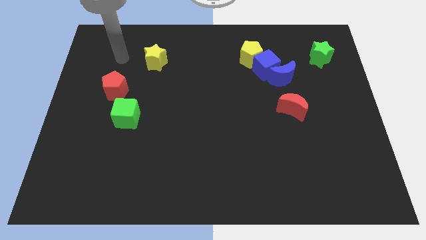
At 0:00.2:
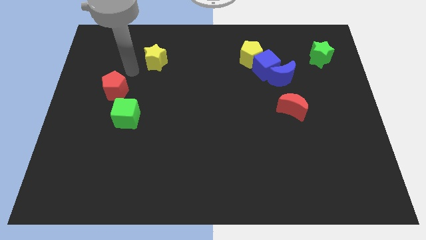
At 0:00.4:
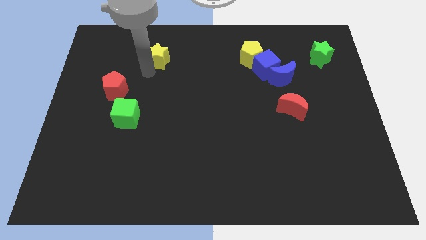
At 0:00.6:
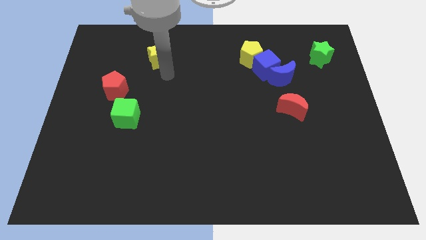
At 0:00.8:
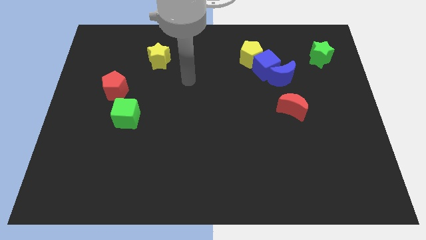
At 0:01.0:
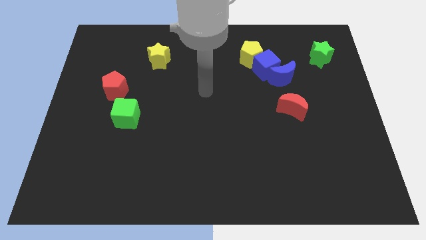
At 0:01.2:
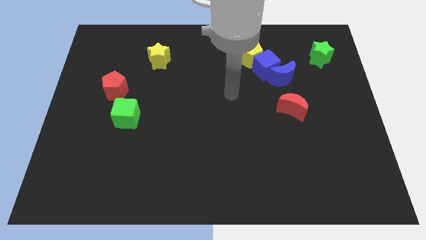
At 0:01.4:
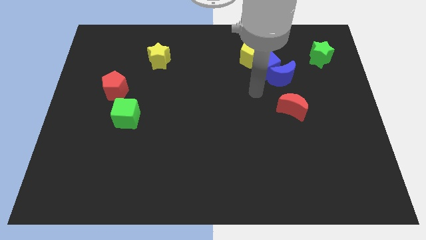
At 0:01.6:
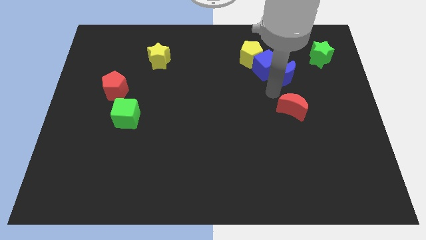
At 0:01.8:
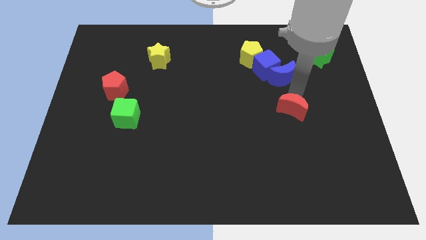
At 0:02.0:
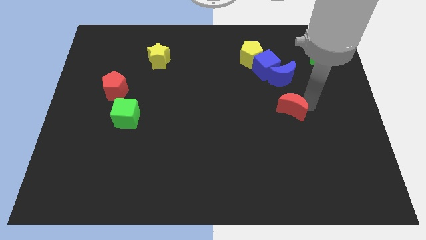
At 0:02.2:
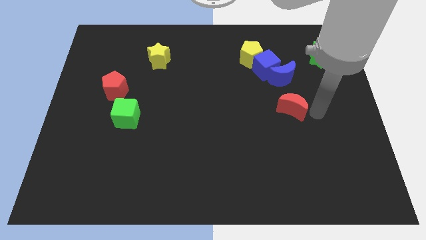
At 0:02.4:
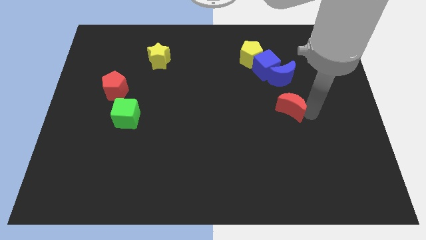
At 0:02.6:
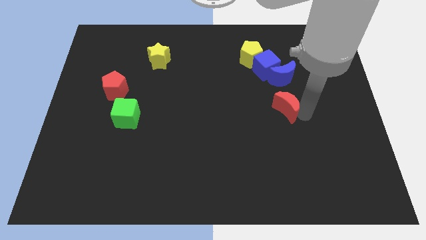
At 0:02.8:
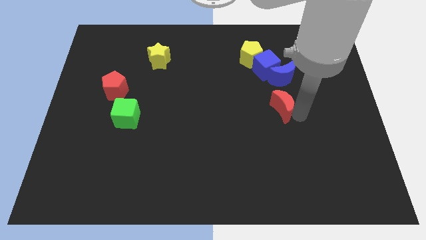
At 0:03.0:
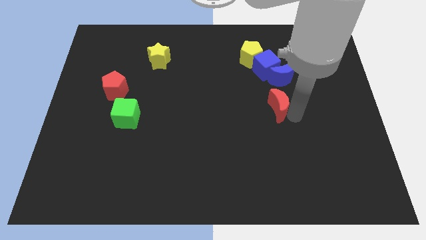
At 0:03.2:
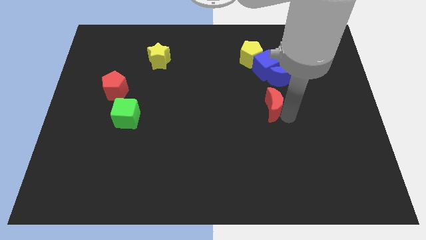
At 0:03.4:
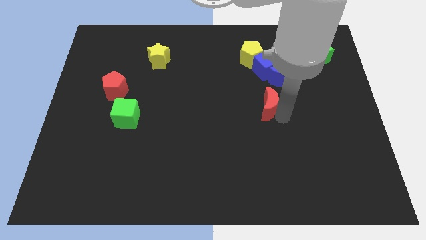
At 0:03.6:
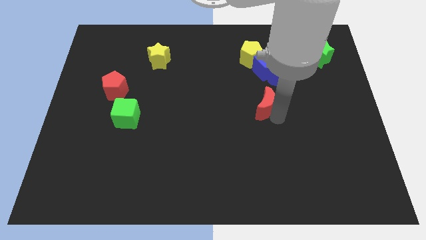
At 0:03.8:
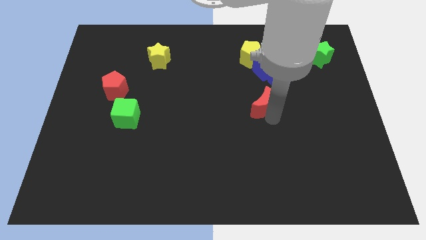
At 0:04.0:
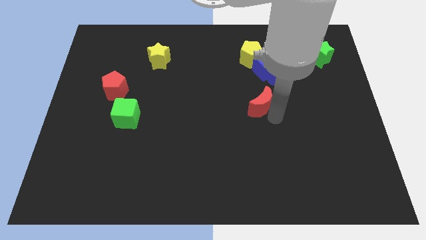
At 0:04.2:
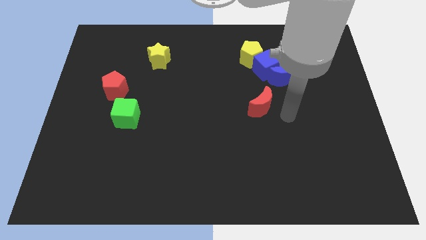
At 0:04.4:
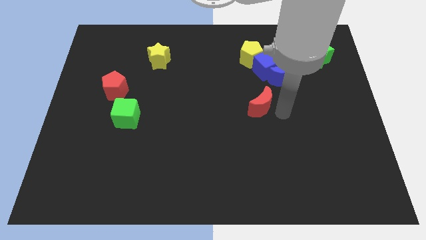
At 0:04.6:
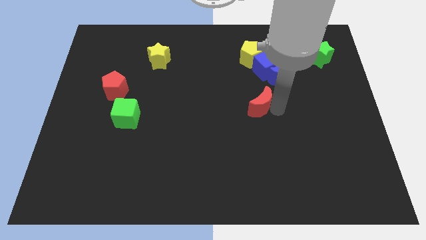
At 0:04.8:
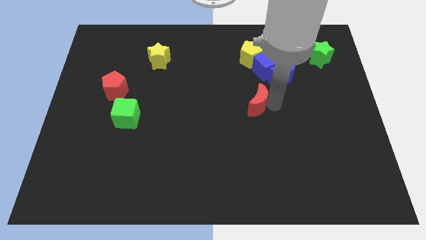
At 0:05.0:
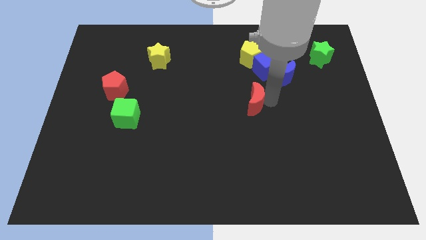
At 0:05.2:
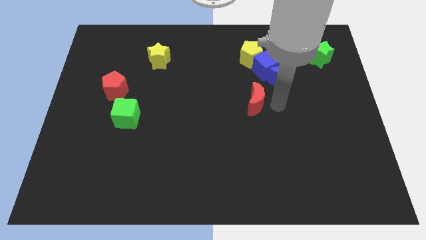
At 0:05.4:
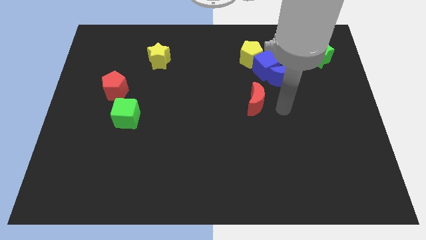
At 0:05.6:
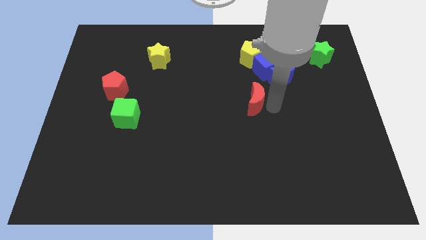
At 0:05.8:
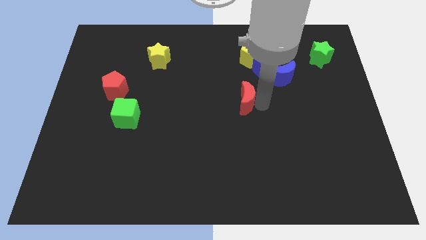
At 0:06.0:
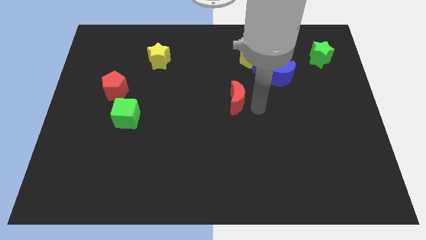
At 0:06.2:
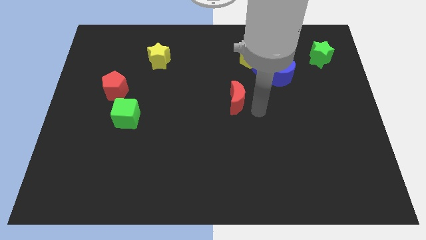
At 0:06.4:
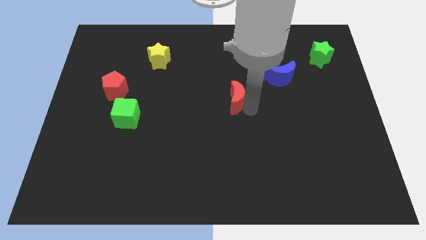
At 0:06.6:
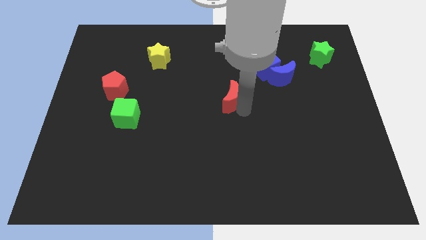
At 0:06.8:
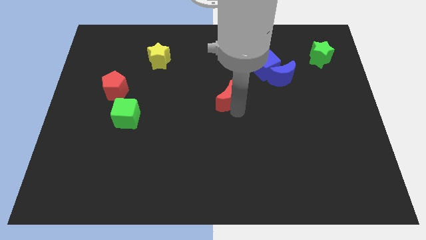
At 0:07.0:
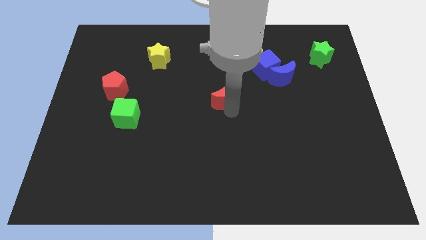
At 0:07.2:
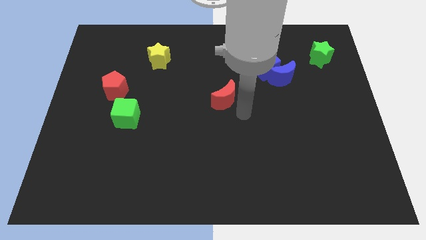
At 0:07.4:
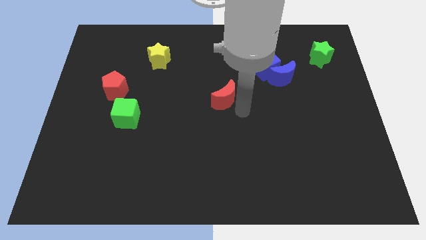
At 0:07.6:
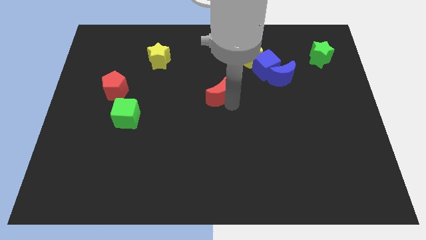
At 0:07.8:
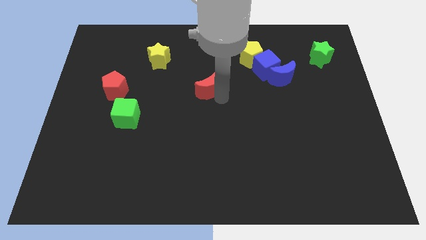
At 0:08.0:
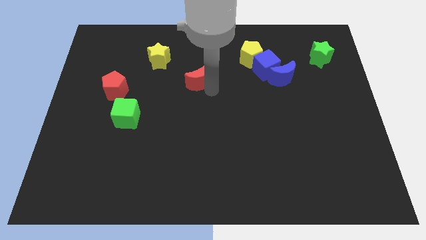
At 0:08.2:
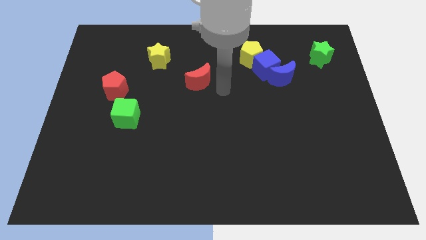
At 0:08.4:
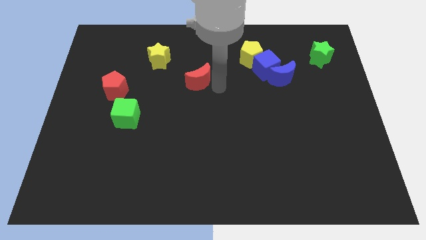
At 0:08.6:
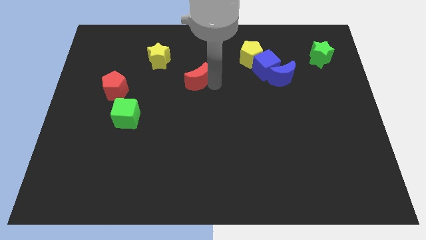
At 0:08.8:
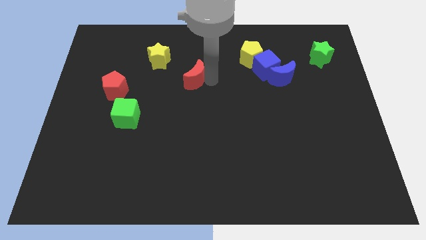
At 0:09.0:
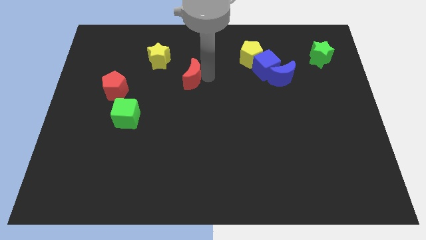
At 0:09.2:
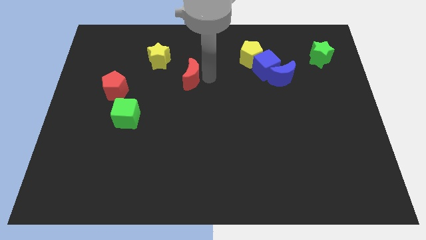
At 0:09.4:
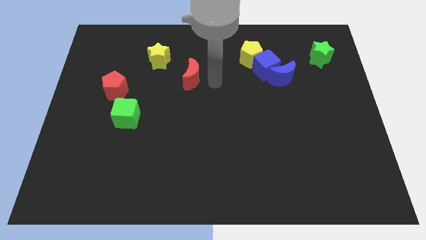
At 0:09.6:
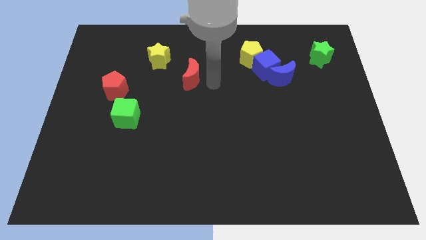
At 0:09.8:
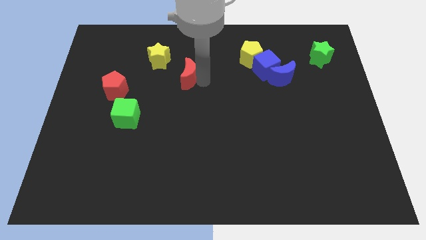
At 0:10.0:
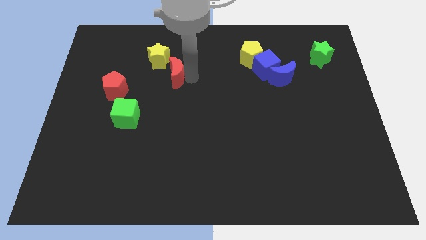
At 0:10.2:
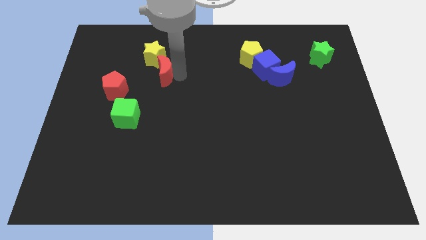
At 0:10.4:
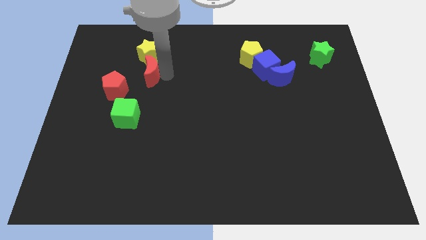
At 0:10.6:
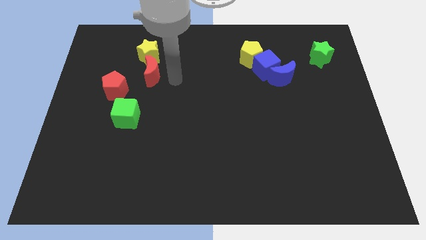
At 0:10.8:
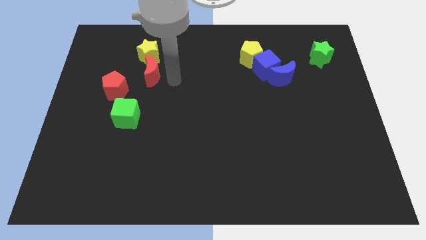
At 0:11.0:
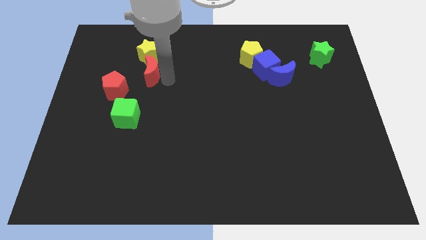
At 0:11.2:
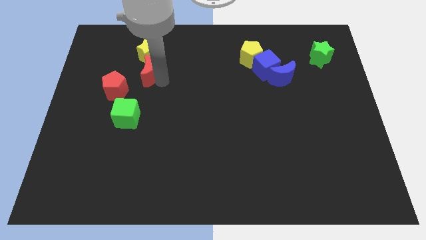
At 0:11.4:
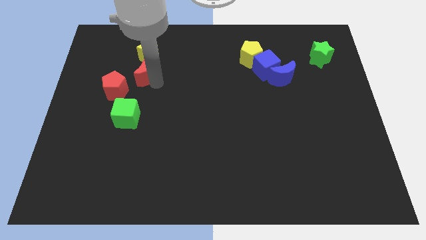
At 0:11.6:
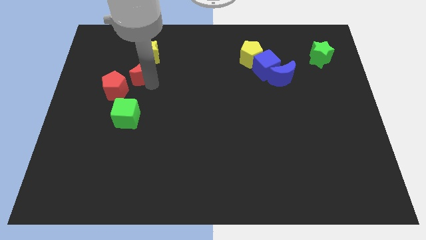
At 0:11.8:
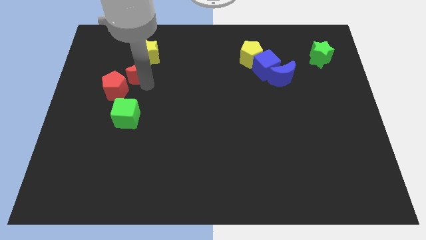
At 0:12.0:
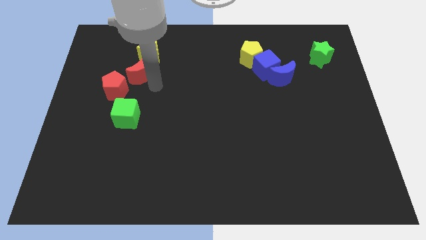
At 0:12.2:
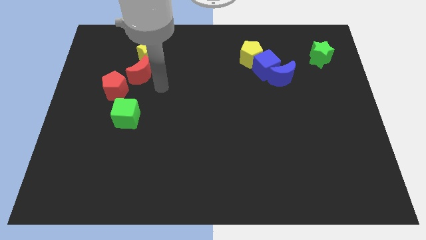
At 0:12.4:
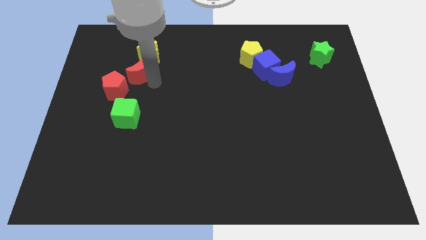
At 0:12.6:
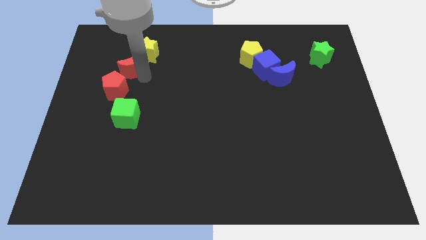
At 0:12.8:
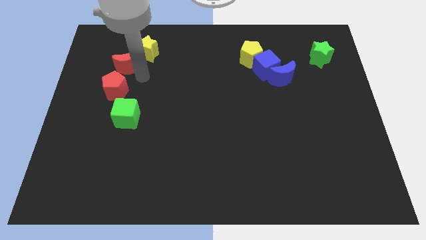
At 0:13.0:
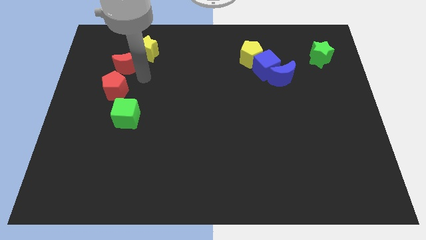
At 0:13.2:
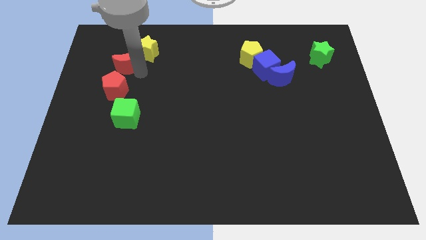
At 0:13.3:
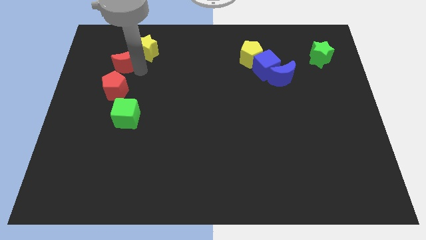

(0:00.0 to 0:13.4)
slide the red moon to the left side of the yellow star
